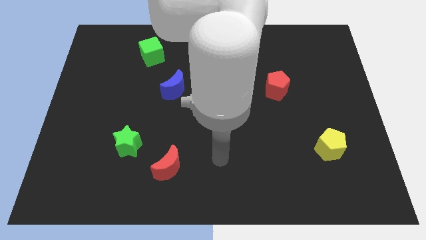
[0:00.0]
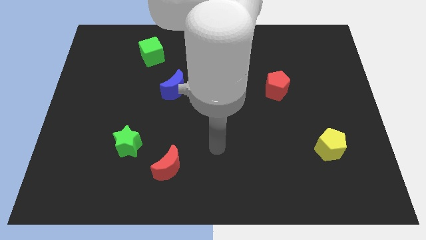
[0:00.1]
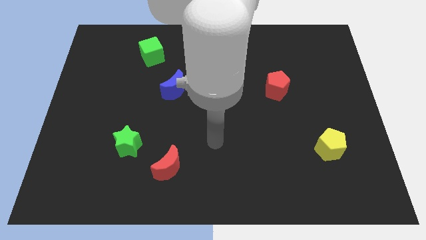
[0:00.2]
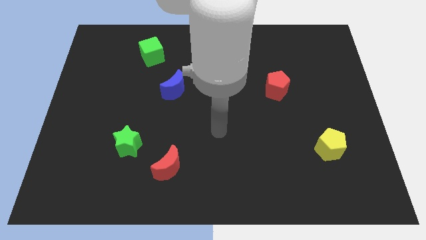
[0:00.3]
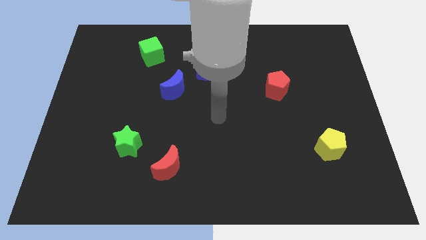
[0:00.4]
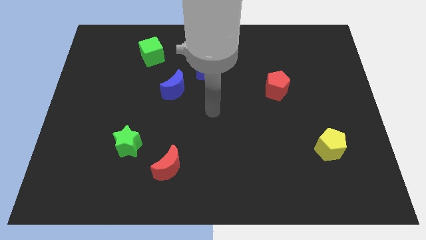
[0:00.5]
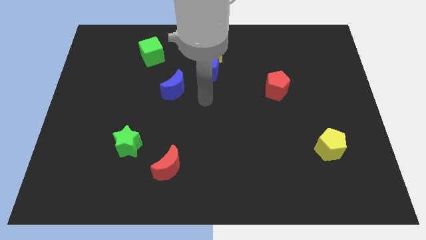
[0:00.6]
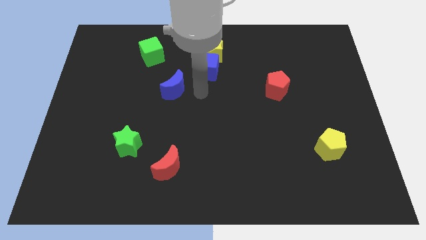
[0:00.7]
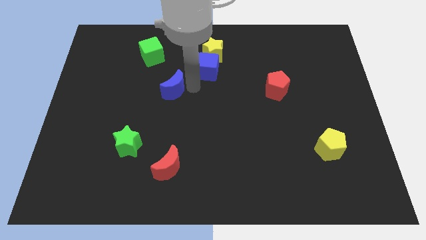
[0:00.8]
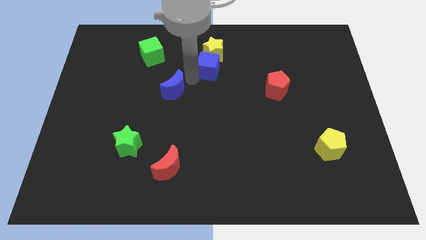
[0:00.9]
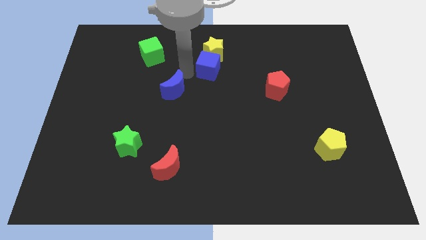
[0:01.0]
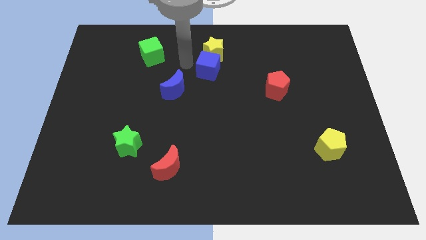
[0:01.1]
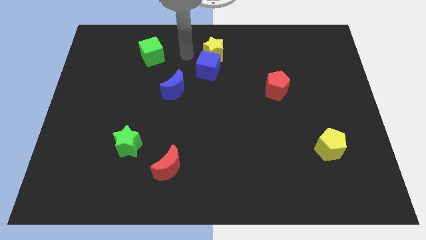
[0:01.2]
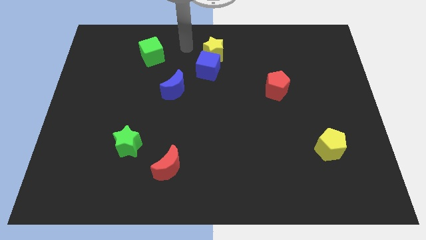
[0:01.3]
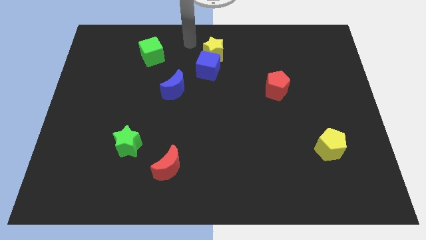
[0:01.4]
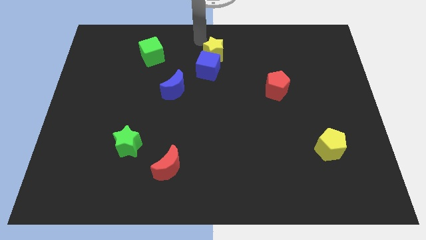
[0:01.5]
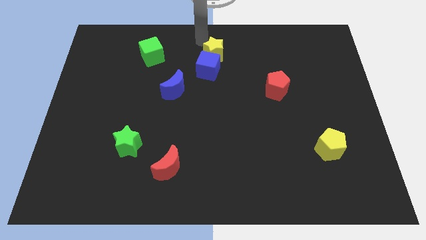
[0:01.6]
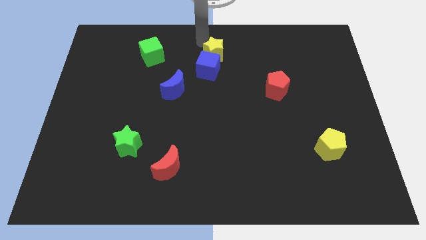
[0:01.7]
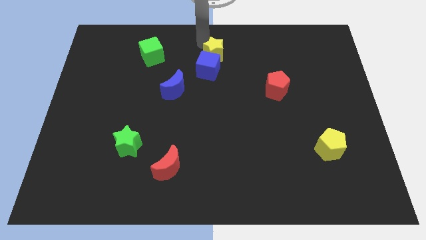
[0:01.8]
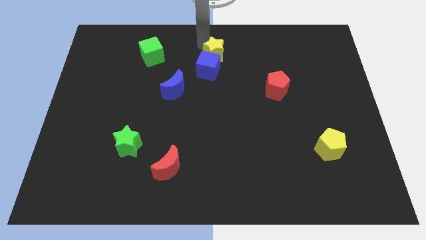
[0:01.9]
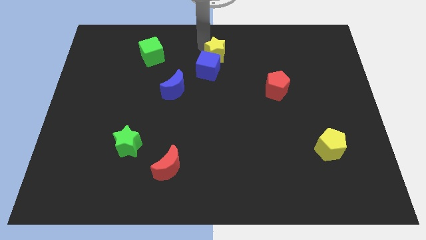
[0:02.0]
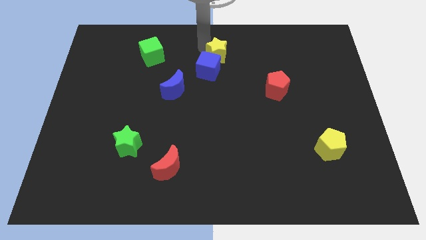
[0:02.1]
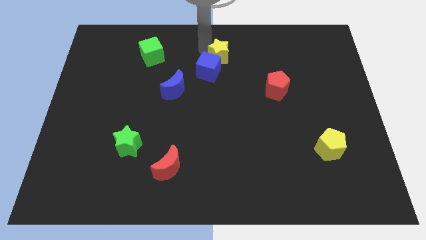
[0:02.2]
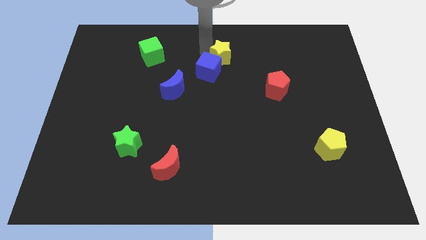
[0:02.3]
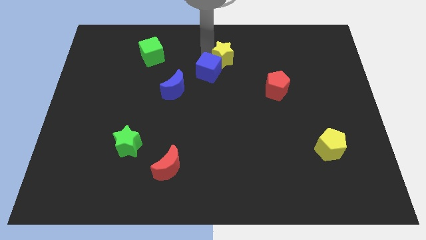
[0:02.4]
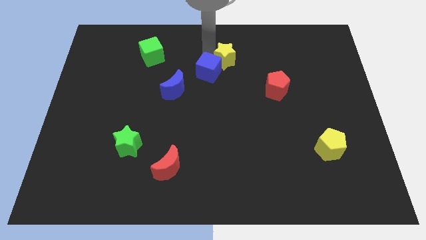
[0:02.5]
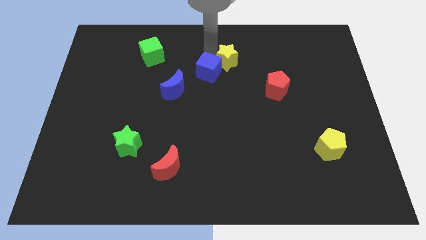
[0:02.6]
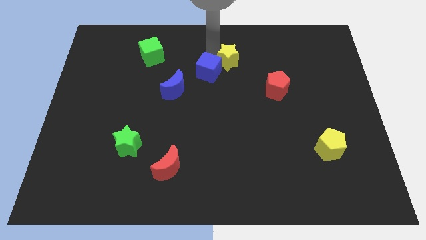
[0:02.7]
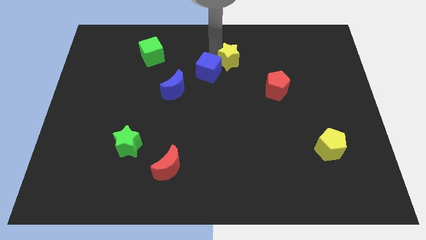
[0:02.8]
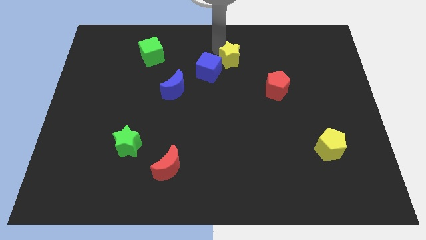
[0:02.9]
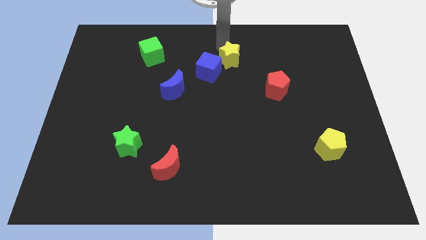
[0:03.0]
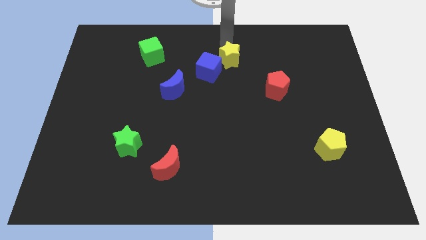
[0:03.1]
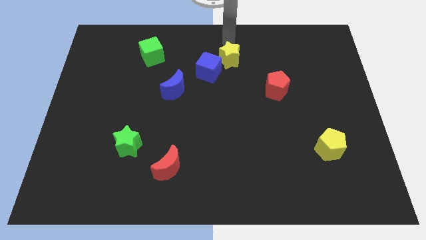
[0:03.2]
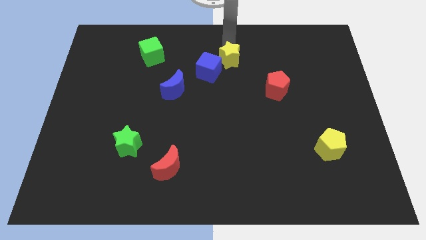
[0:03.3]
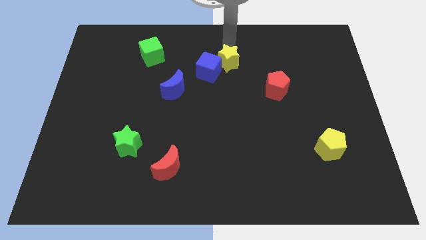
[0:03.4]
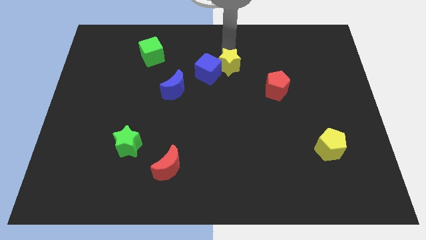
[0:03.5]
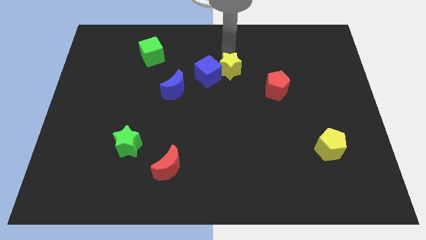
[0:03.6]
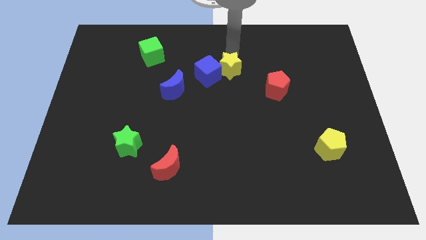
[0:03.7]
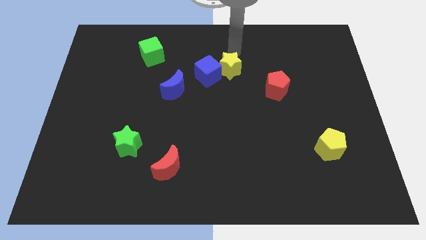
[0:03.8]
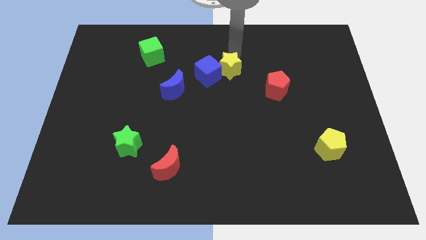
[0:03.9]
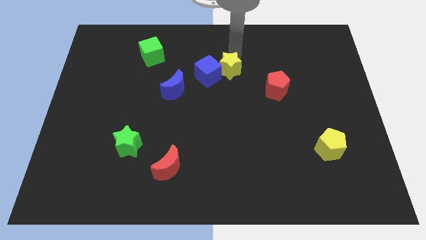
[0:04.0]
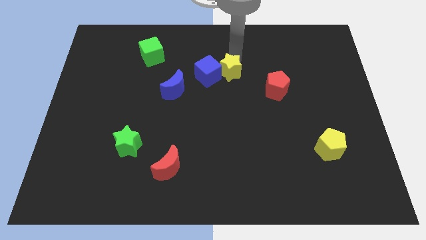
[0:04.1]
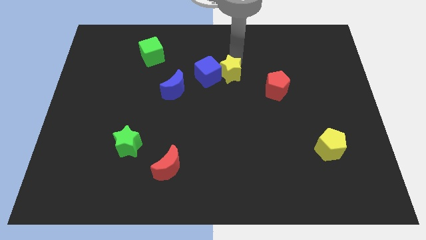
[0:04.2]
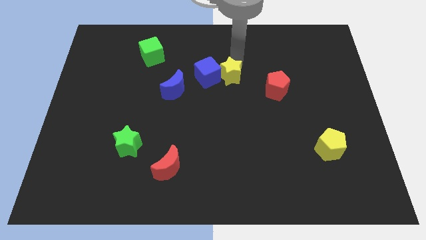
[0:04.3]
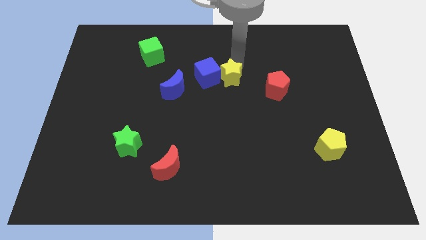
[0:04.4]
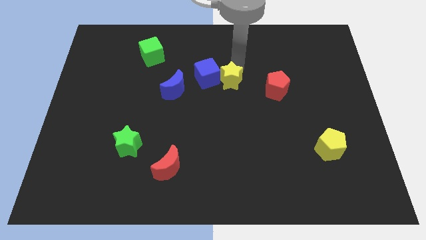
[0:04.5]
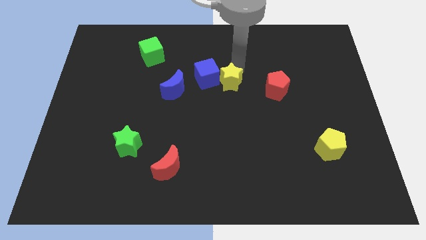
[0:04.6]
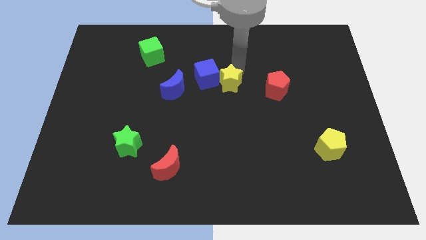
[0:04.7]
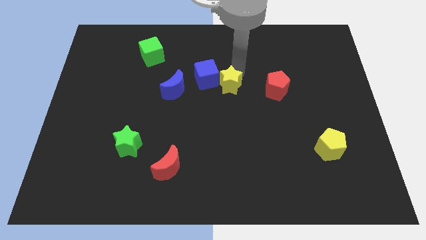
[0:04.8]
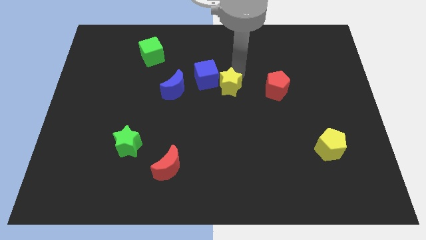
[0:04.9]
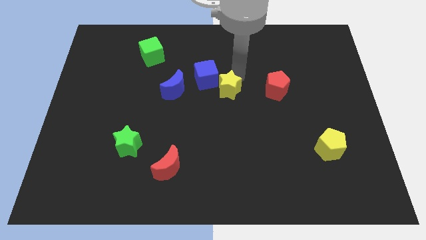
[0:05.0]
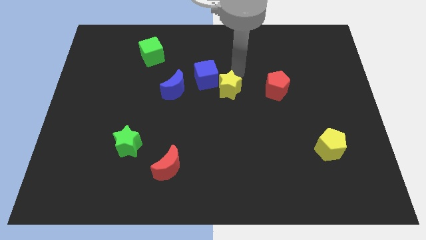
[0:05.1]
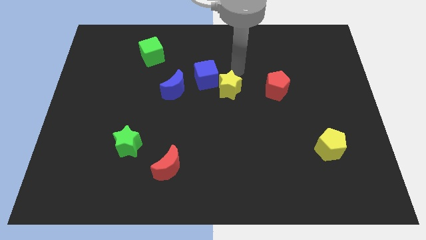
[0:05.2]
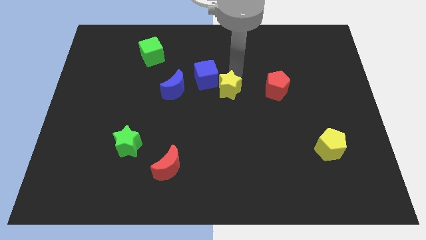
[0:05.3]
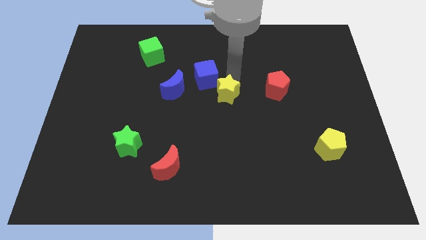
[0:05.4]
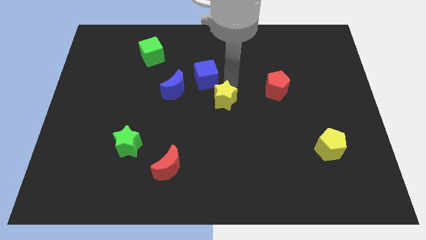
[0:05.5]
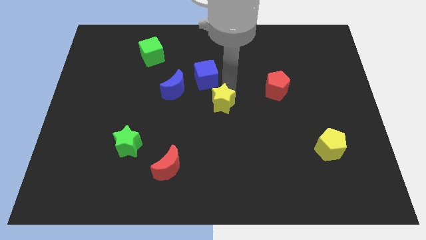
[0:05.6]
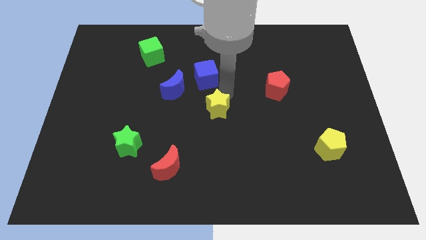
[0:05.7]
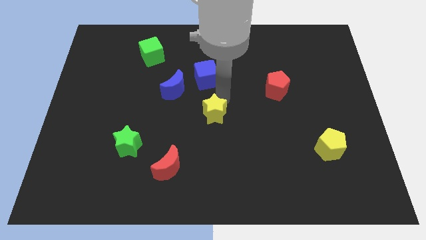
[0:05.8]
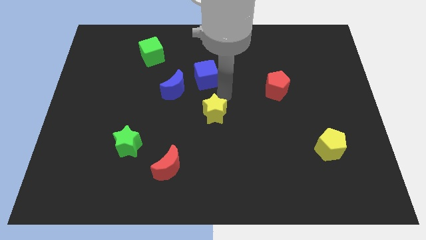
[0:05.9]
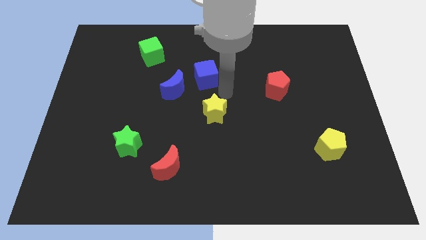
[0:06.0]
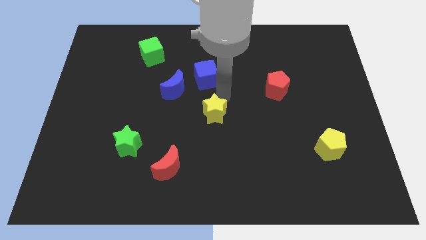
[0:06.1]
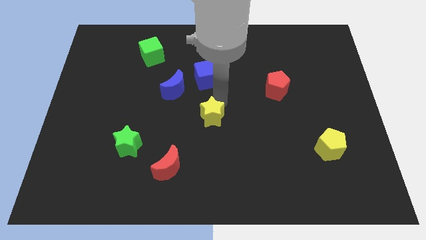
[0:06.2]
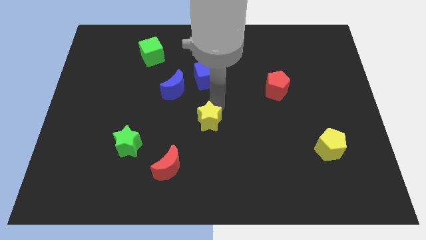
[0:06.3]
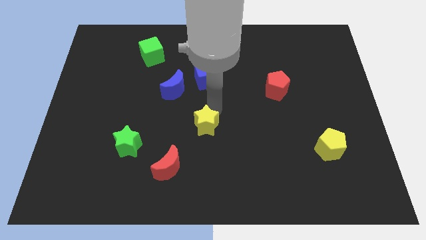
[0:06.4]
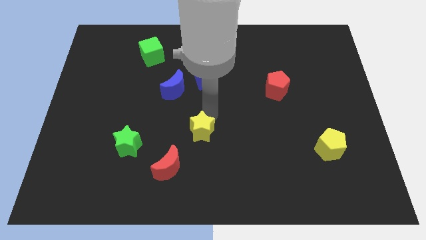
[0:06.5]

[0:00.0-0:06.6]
move the yellow star to the top right of the red moon

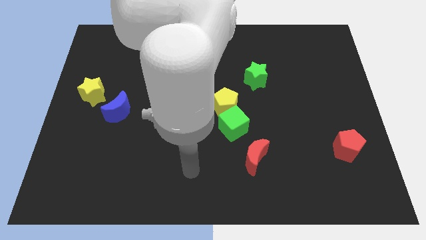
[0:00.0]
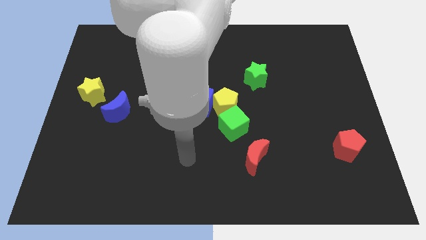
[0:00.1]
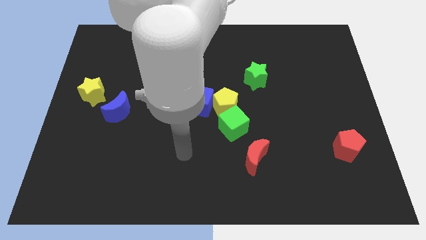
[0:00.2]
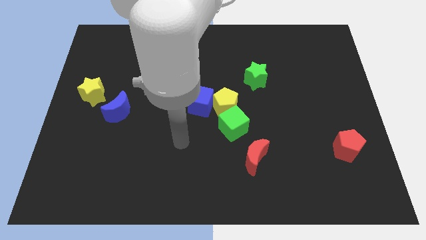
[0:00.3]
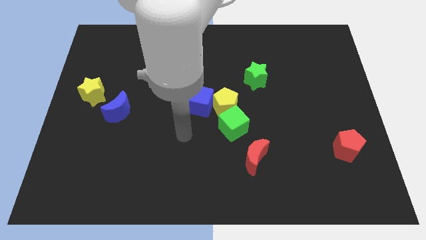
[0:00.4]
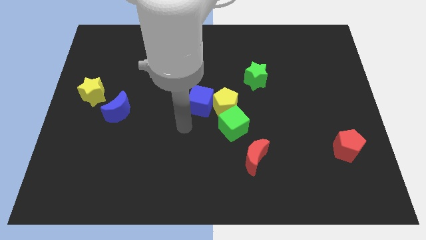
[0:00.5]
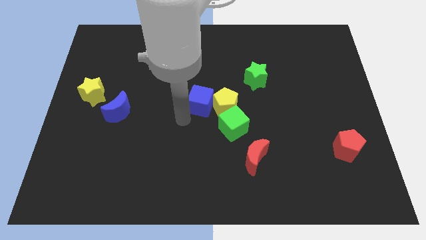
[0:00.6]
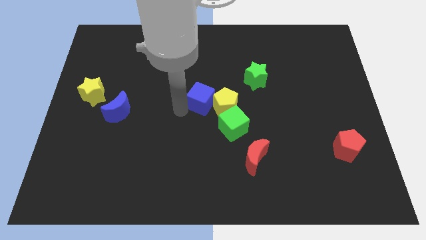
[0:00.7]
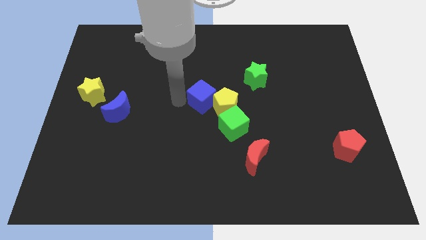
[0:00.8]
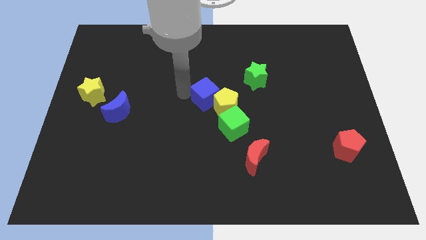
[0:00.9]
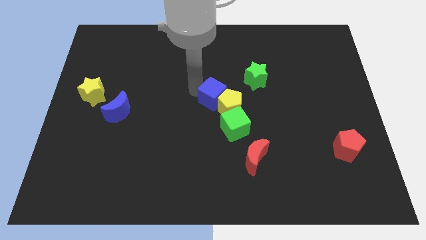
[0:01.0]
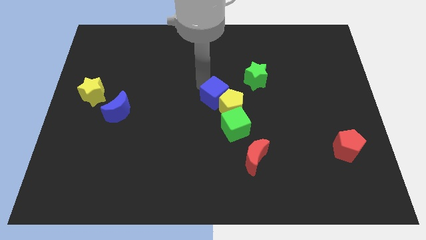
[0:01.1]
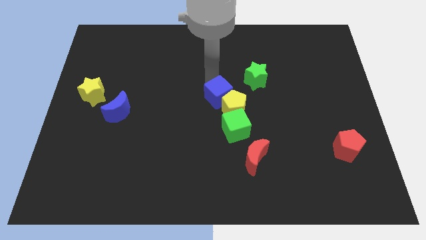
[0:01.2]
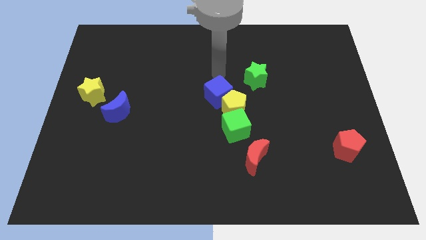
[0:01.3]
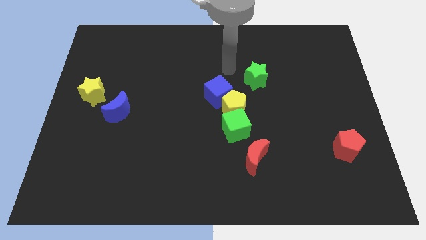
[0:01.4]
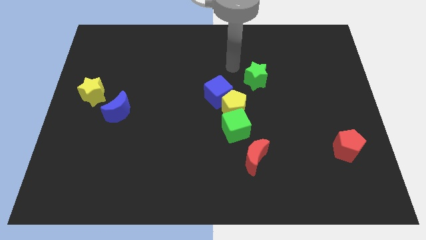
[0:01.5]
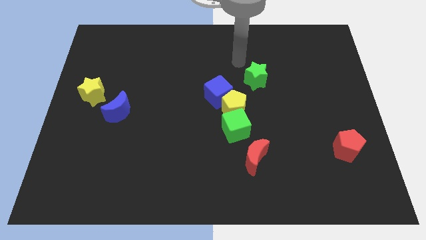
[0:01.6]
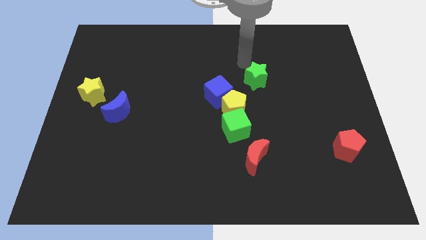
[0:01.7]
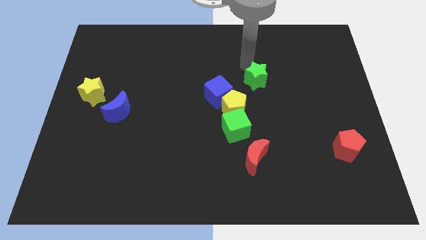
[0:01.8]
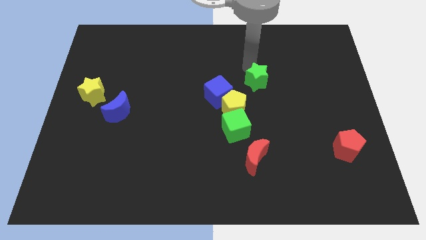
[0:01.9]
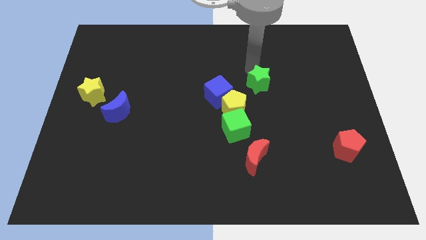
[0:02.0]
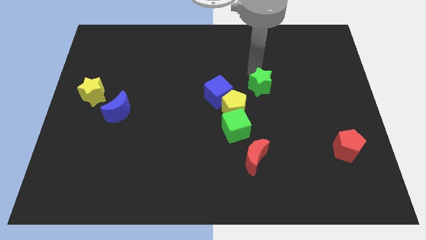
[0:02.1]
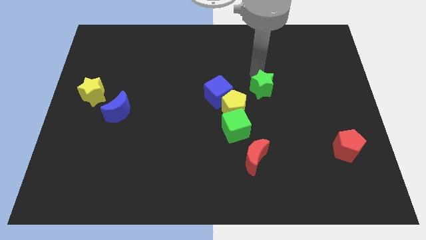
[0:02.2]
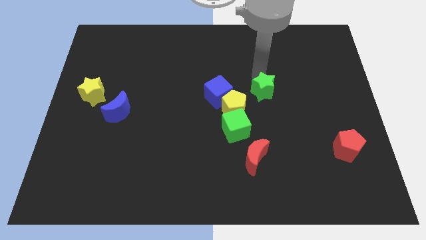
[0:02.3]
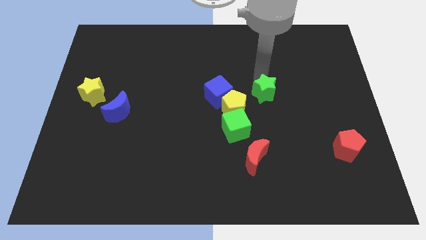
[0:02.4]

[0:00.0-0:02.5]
push the green star just right of the yellow pentagon
